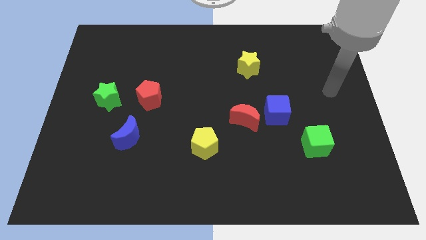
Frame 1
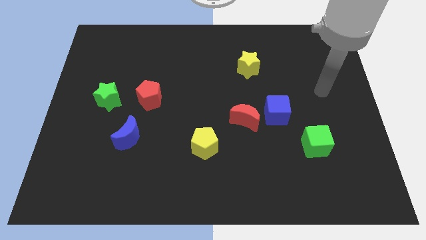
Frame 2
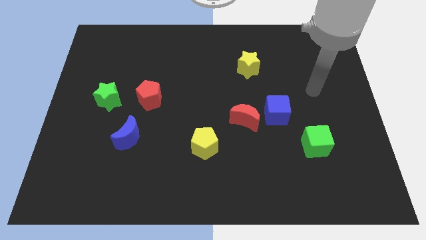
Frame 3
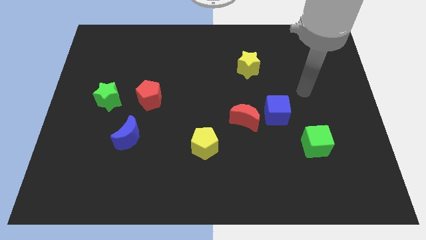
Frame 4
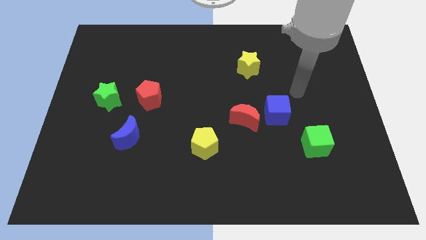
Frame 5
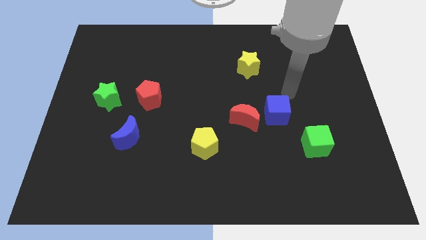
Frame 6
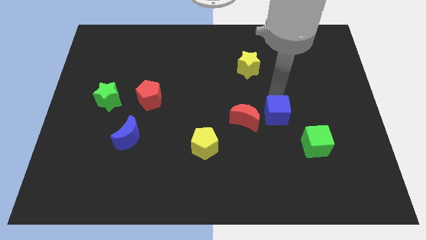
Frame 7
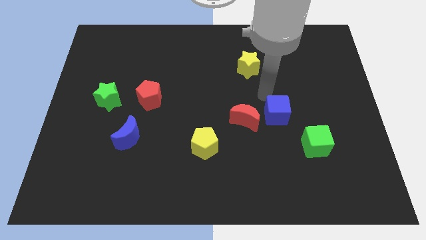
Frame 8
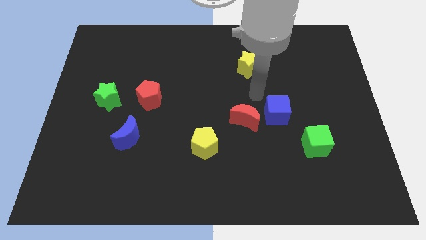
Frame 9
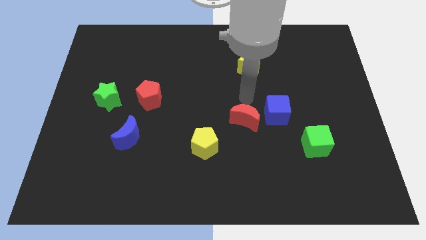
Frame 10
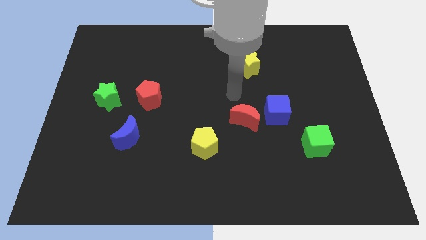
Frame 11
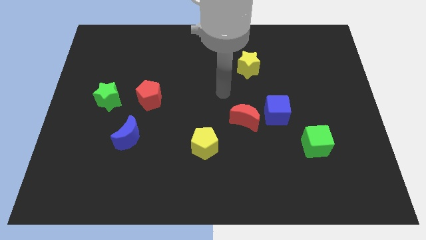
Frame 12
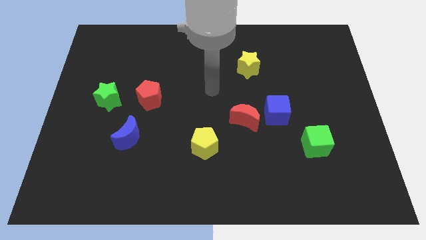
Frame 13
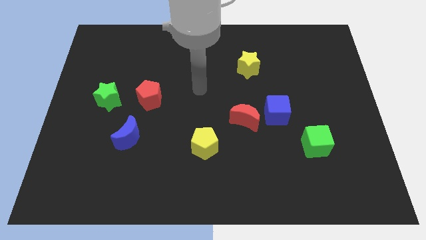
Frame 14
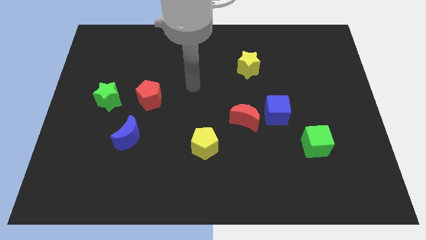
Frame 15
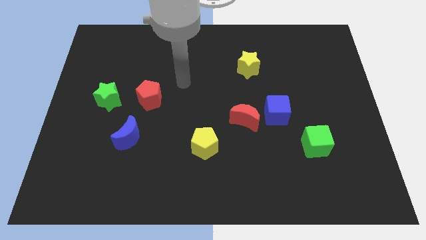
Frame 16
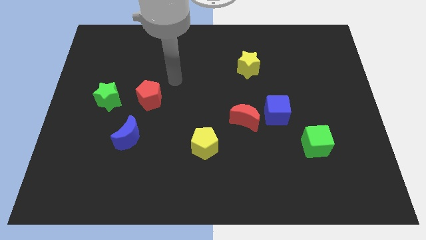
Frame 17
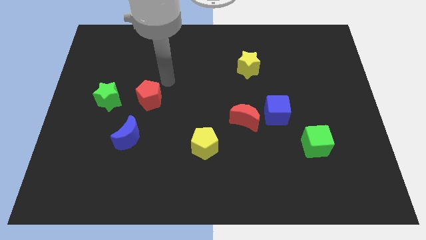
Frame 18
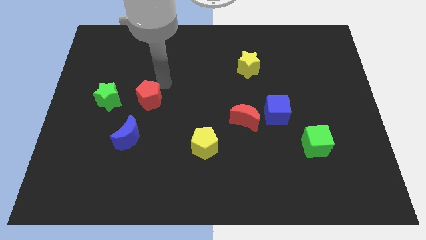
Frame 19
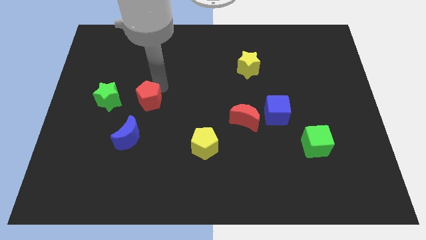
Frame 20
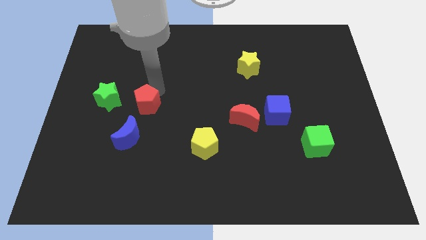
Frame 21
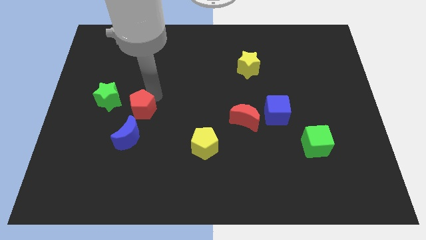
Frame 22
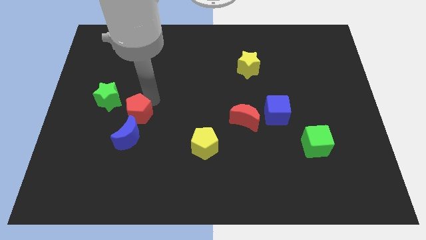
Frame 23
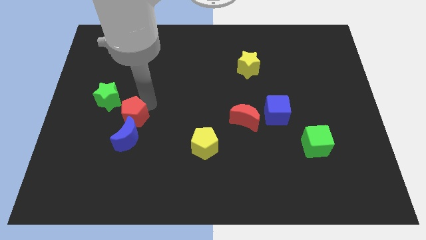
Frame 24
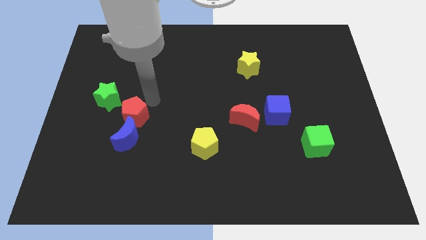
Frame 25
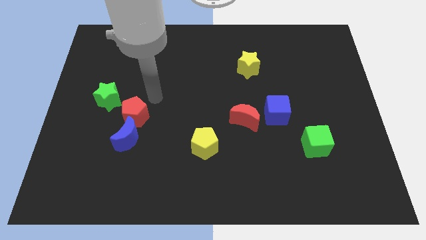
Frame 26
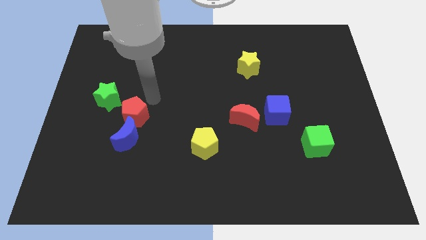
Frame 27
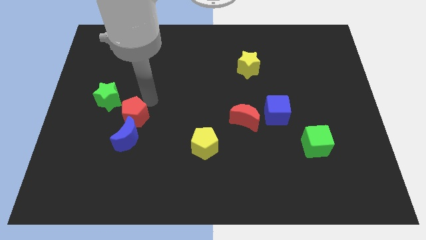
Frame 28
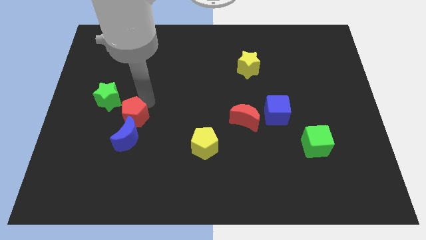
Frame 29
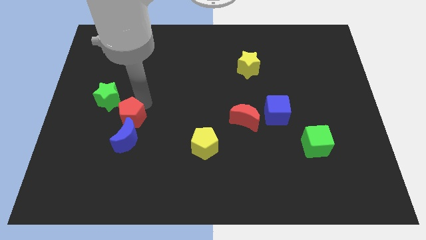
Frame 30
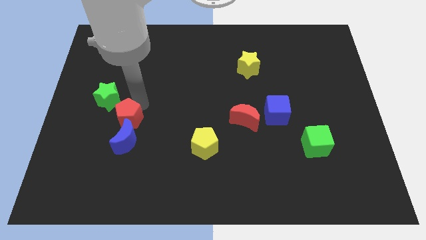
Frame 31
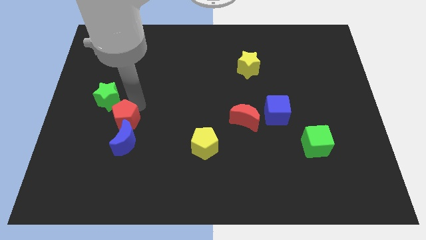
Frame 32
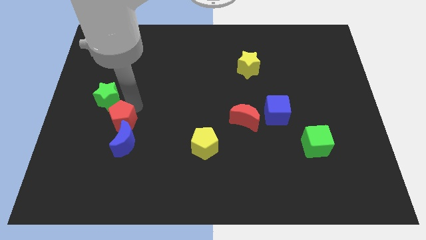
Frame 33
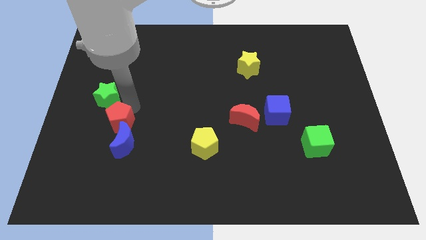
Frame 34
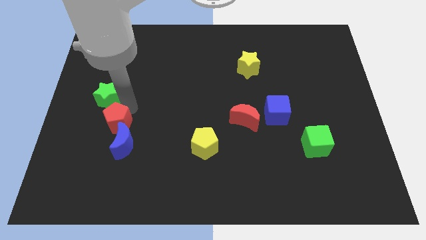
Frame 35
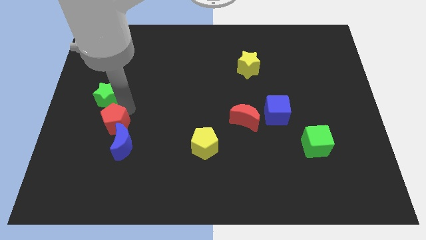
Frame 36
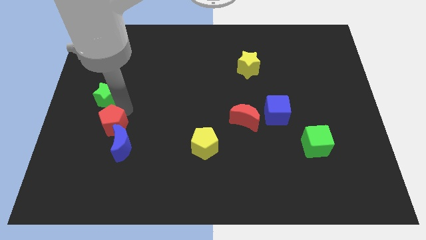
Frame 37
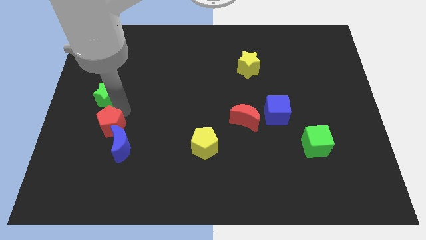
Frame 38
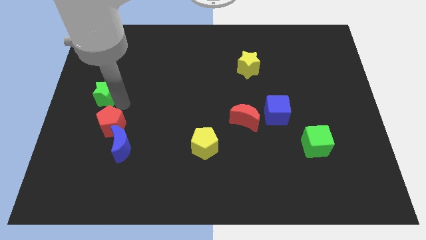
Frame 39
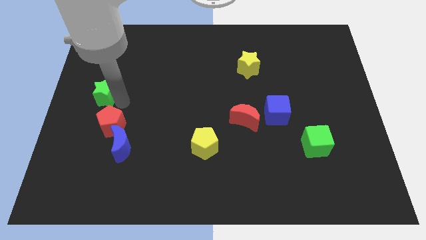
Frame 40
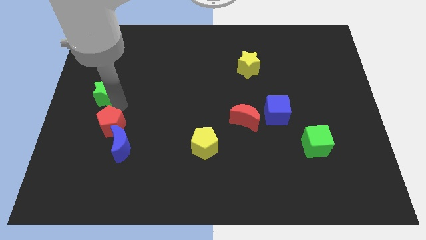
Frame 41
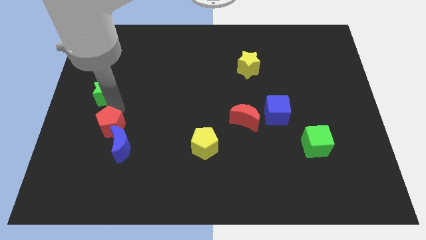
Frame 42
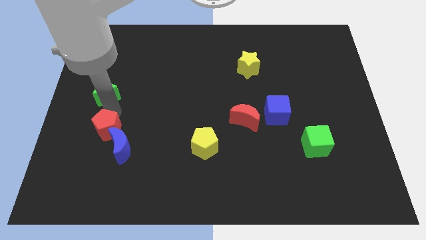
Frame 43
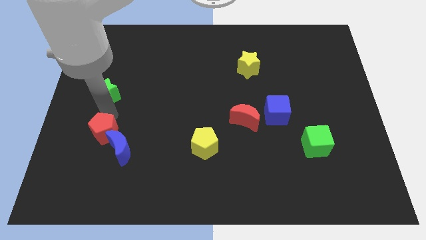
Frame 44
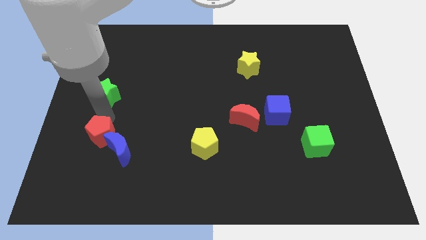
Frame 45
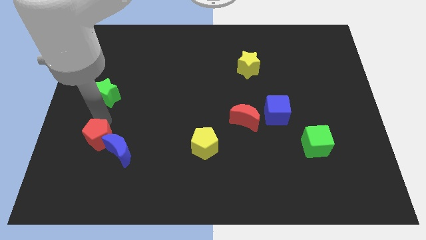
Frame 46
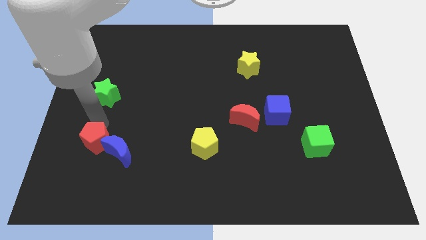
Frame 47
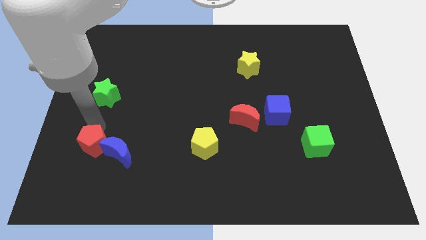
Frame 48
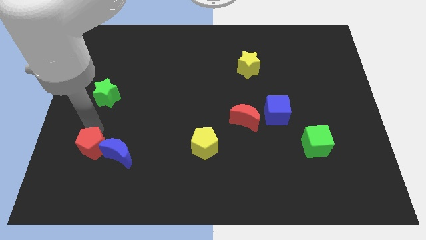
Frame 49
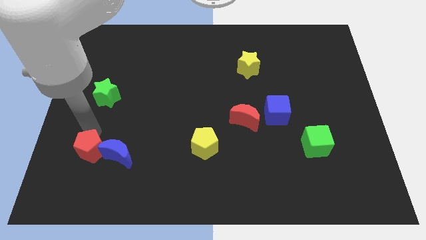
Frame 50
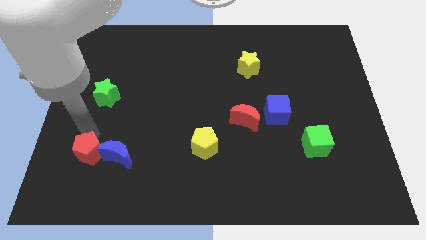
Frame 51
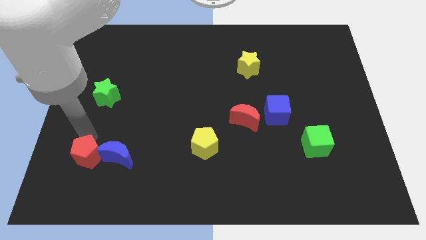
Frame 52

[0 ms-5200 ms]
slide the red pentagon to the bottom left of the blue moon

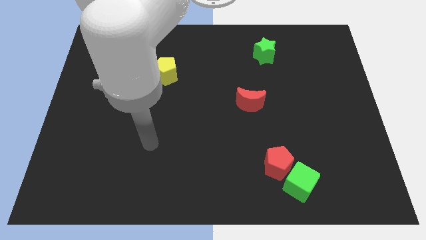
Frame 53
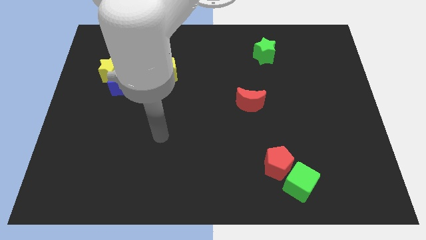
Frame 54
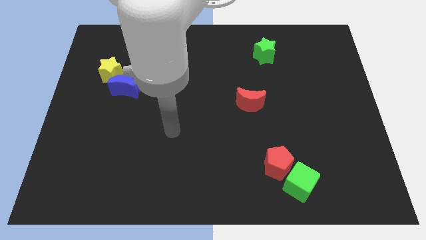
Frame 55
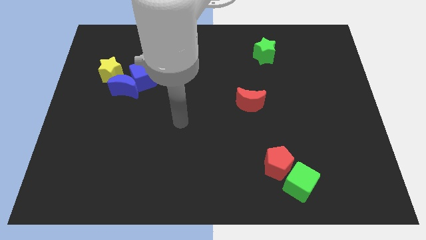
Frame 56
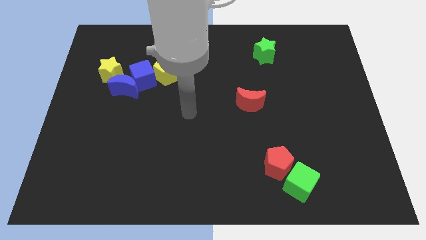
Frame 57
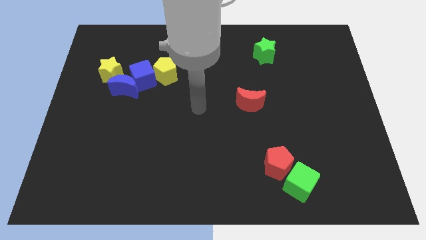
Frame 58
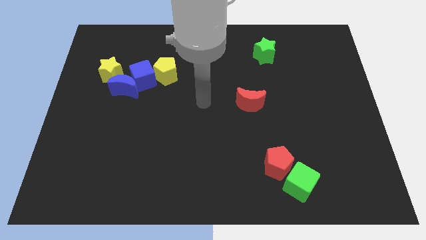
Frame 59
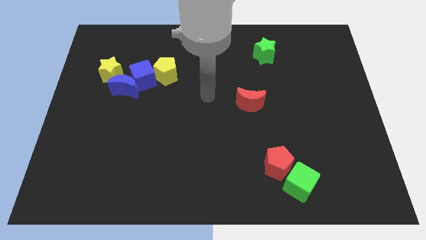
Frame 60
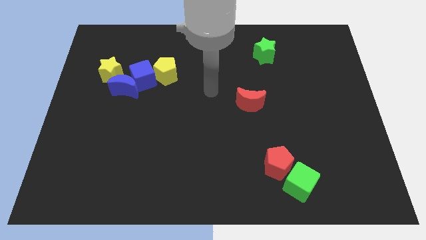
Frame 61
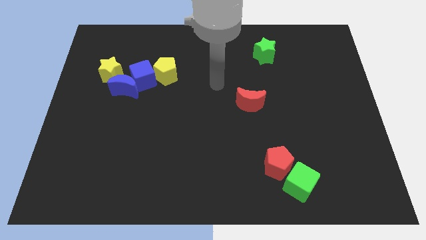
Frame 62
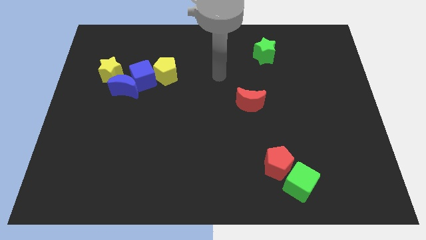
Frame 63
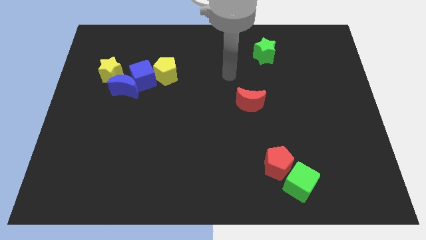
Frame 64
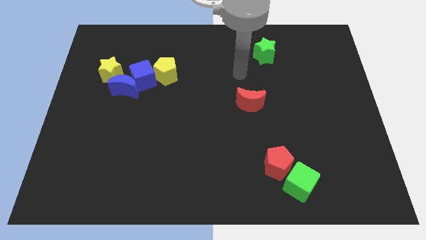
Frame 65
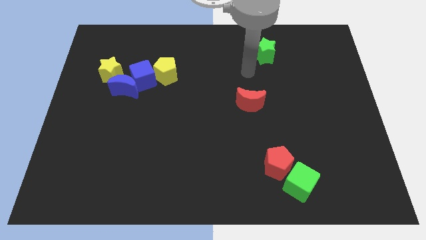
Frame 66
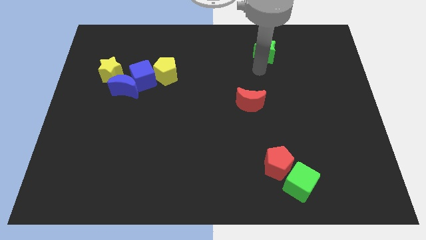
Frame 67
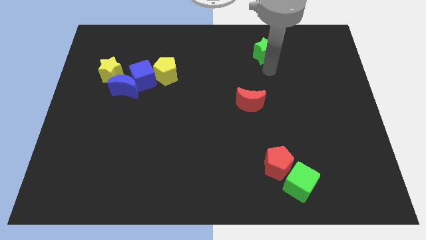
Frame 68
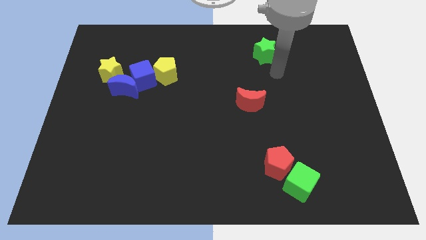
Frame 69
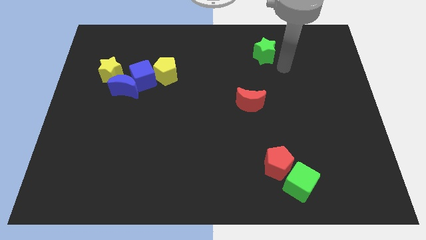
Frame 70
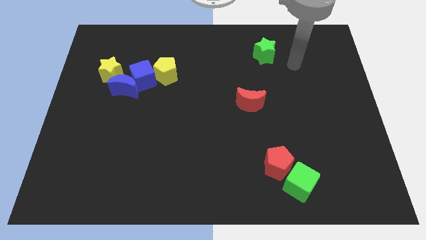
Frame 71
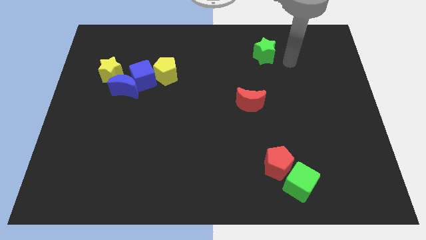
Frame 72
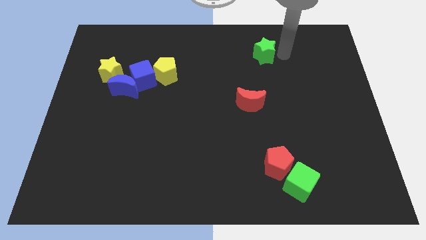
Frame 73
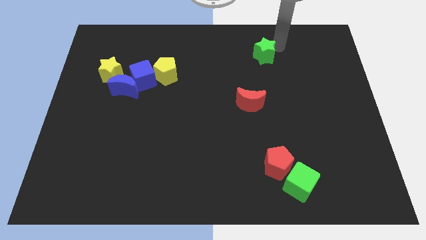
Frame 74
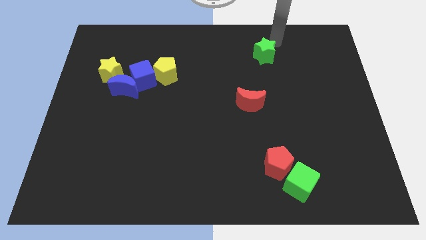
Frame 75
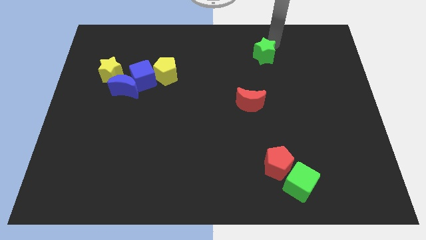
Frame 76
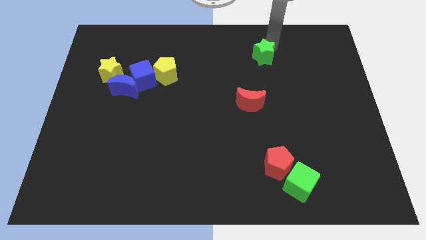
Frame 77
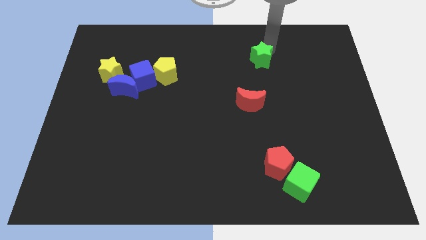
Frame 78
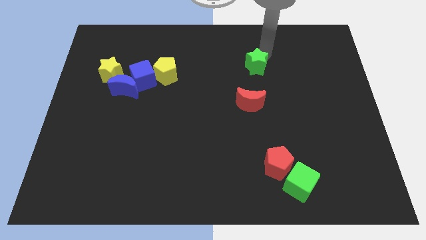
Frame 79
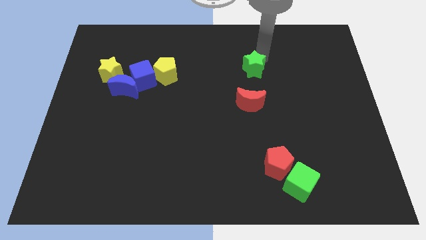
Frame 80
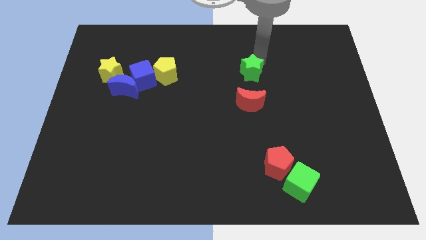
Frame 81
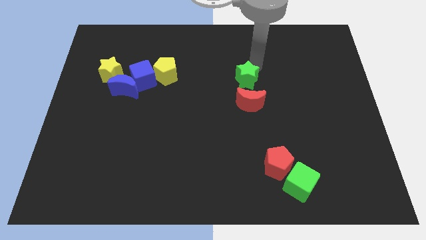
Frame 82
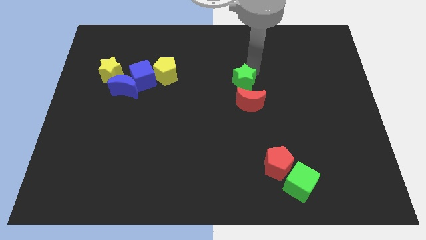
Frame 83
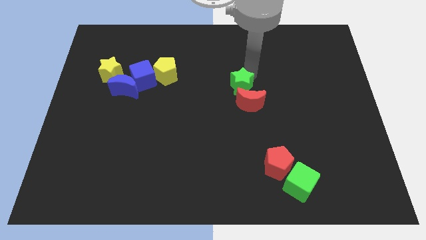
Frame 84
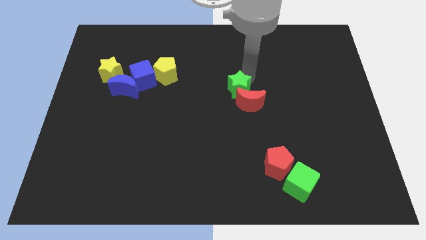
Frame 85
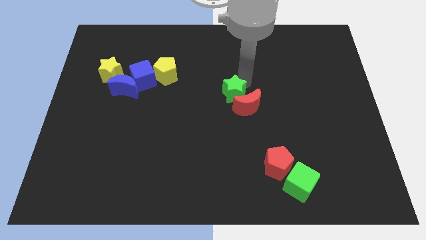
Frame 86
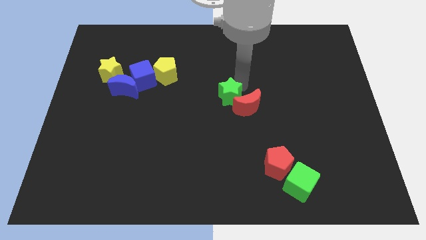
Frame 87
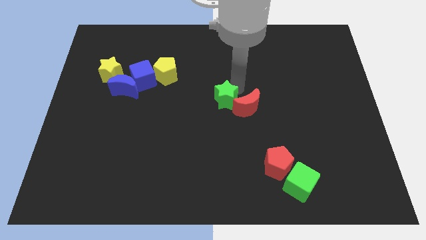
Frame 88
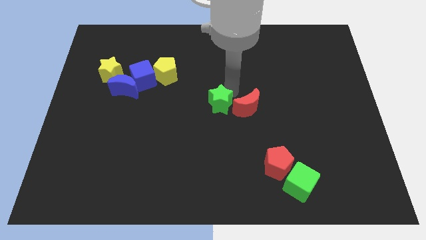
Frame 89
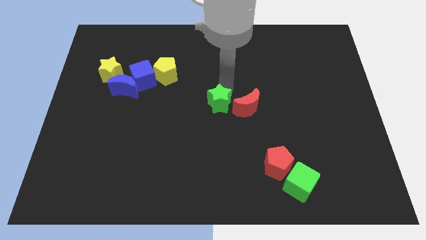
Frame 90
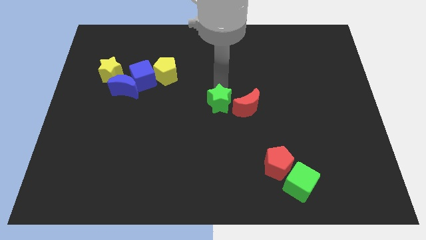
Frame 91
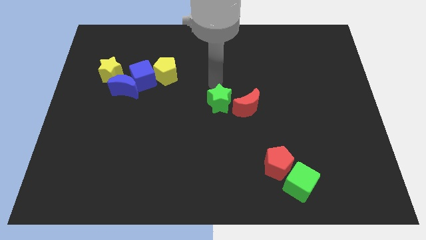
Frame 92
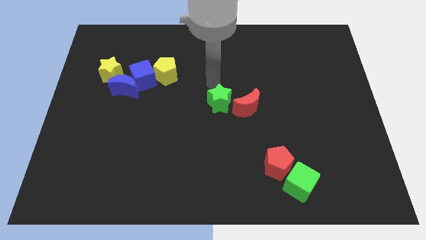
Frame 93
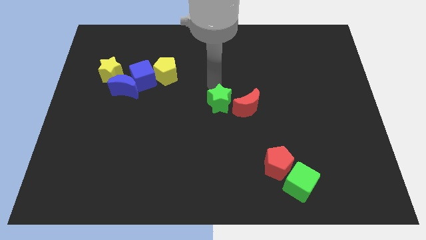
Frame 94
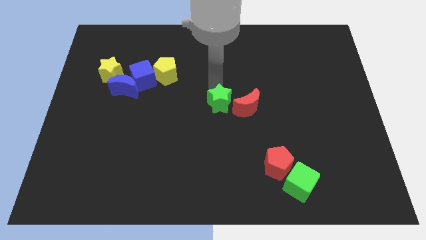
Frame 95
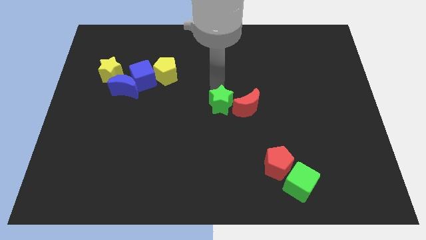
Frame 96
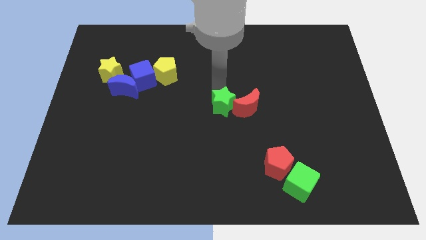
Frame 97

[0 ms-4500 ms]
put the green star to the bottom left of the red moon
